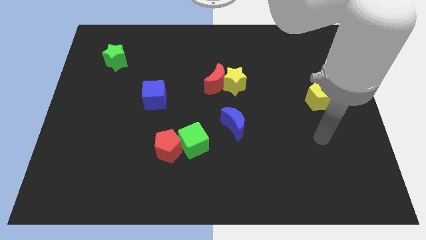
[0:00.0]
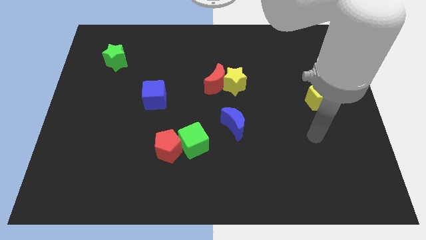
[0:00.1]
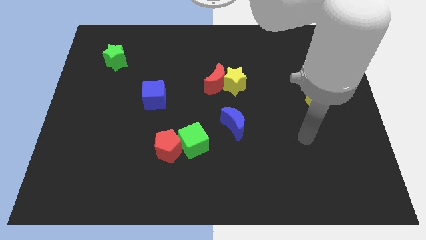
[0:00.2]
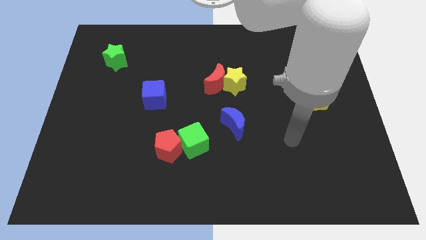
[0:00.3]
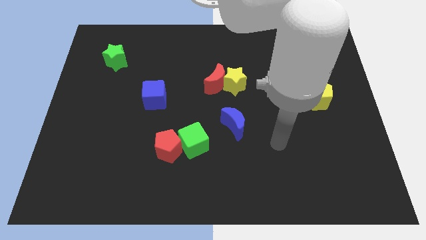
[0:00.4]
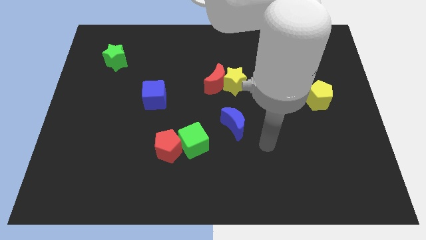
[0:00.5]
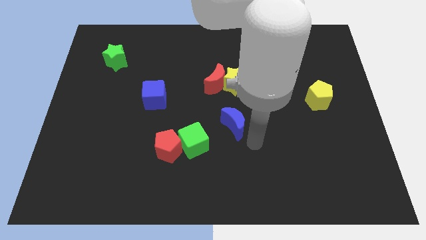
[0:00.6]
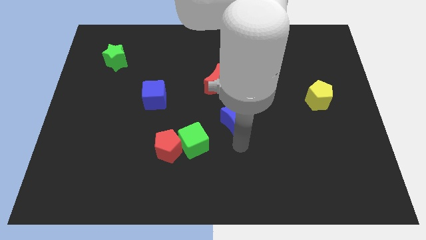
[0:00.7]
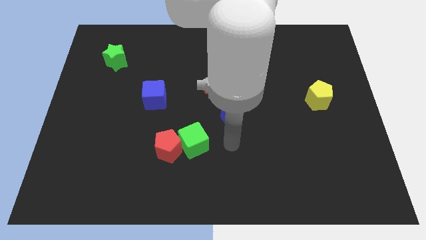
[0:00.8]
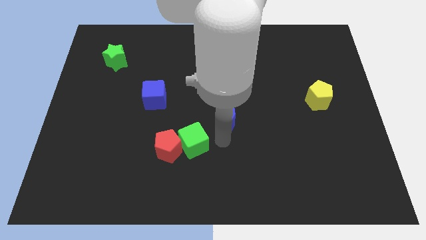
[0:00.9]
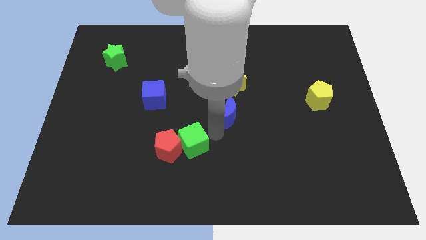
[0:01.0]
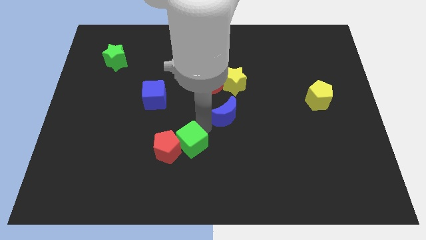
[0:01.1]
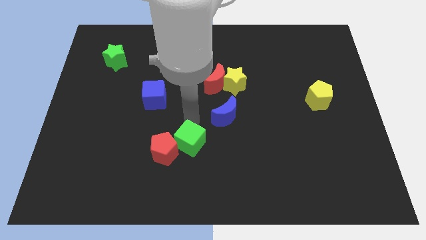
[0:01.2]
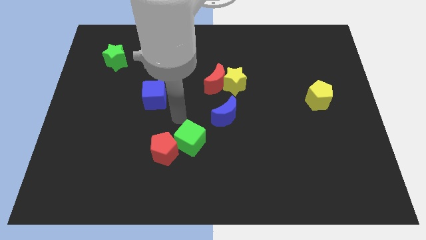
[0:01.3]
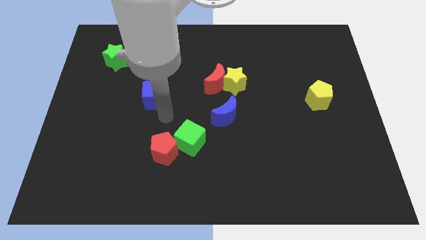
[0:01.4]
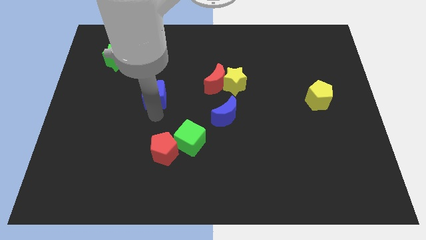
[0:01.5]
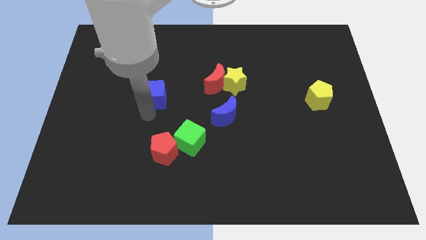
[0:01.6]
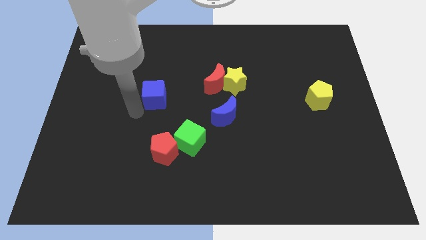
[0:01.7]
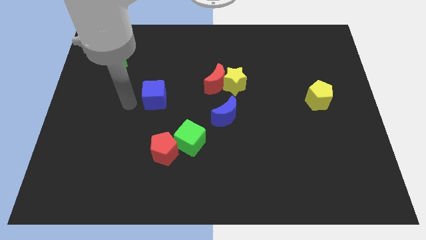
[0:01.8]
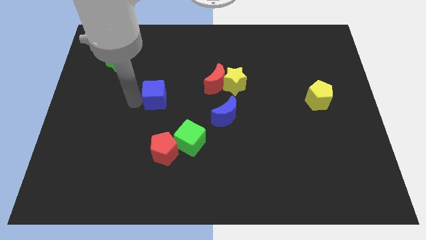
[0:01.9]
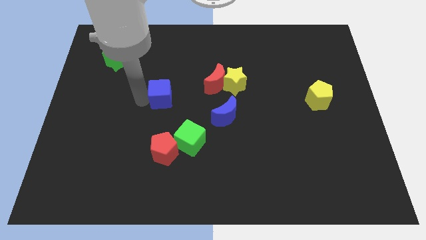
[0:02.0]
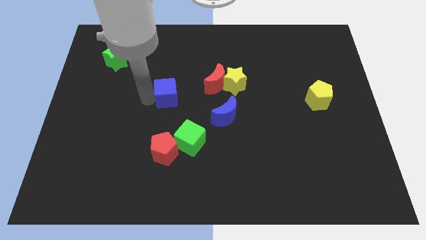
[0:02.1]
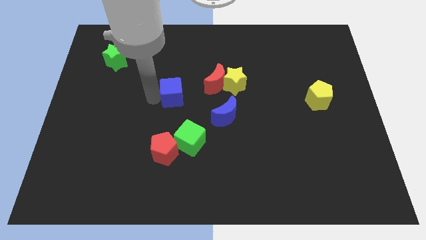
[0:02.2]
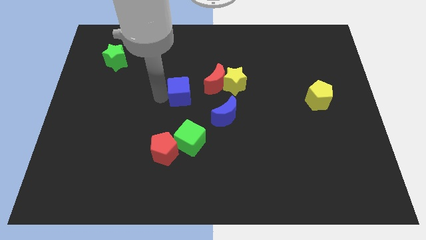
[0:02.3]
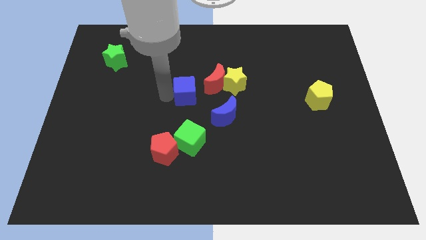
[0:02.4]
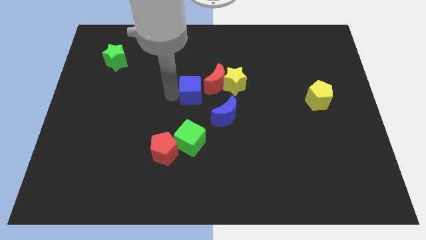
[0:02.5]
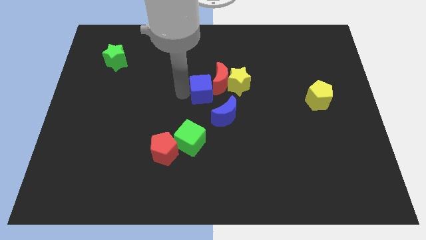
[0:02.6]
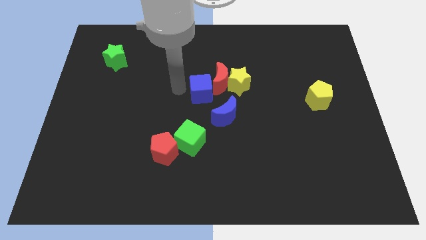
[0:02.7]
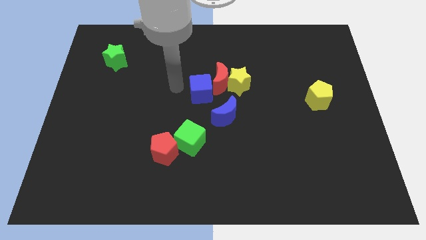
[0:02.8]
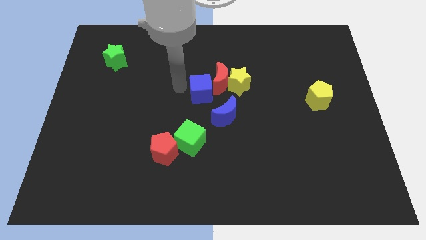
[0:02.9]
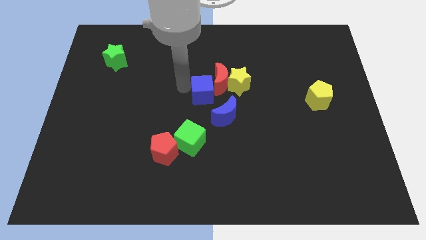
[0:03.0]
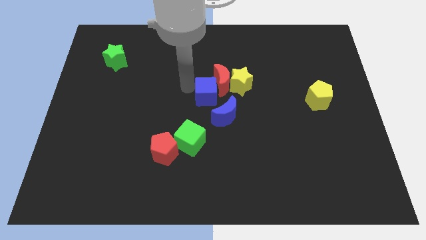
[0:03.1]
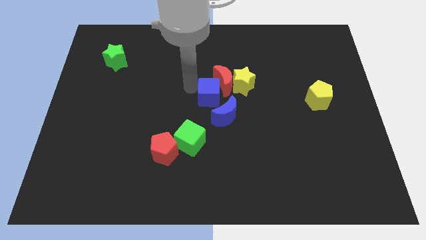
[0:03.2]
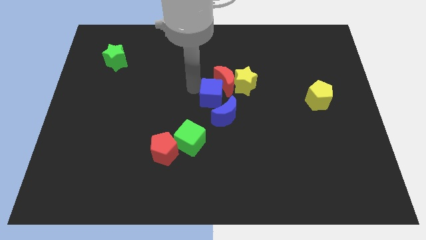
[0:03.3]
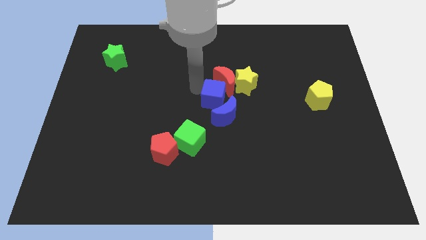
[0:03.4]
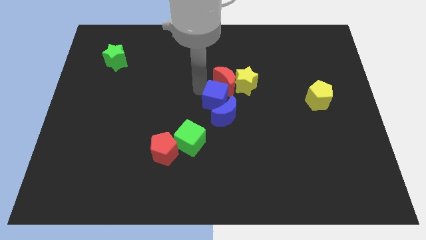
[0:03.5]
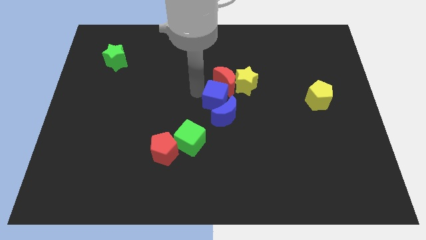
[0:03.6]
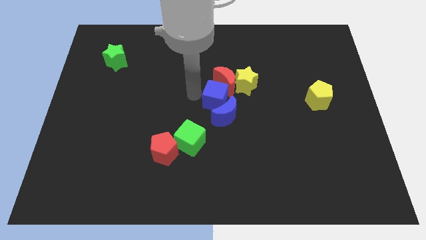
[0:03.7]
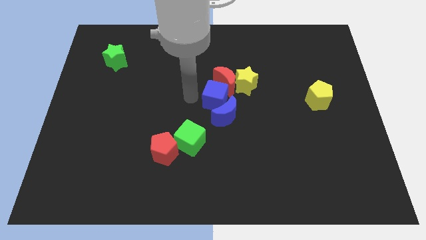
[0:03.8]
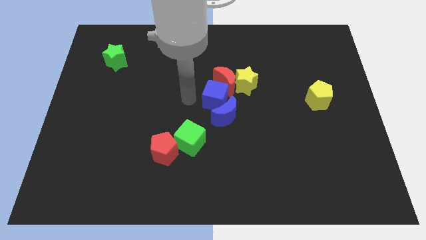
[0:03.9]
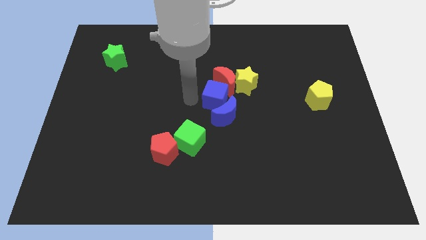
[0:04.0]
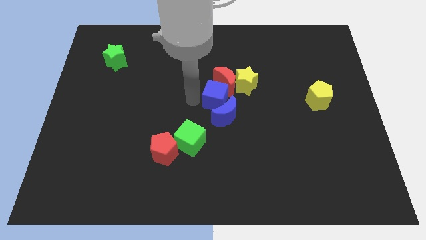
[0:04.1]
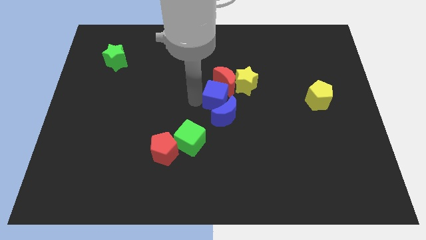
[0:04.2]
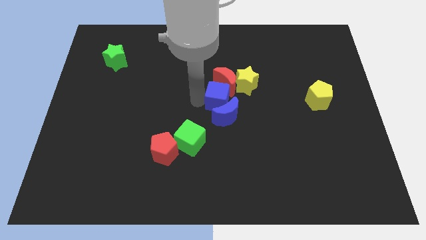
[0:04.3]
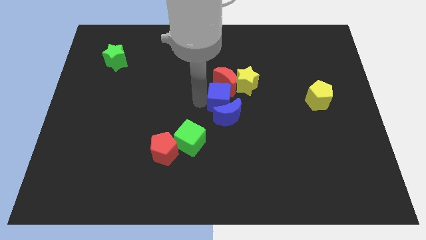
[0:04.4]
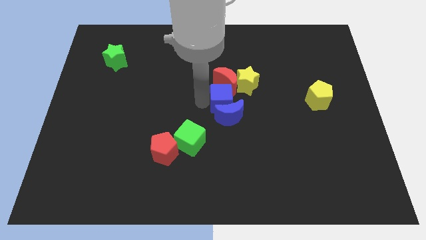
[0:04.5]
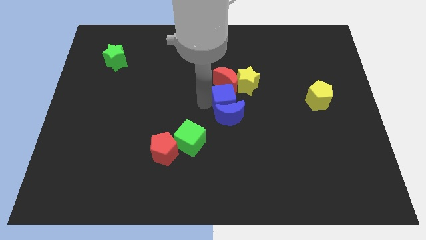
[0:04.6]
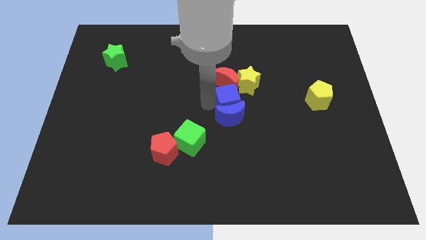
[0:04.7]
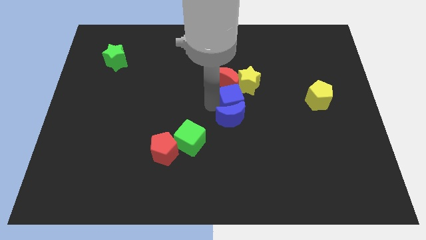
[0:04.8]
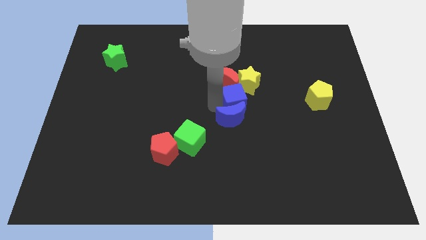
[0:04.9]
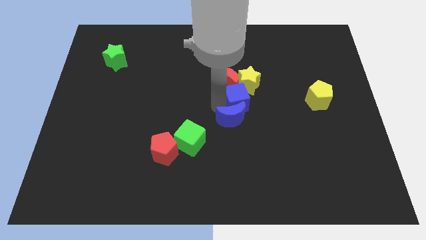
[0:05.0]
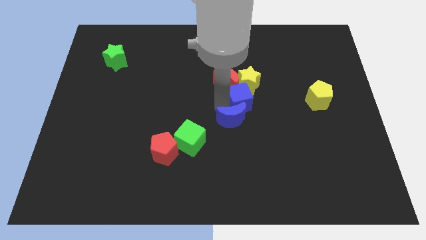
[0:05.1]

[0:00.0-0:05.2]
move the blue cube to the yellow star

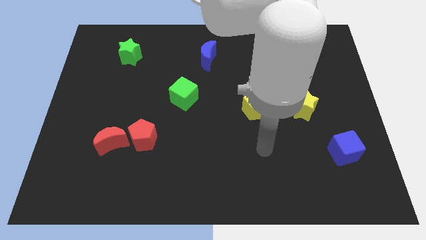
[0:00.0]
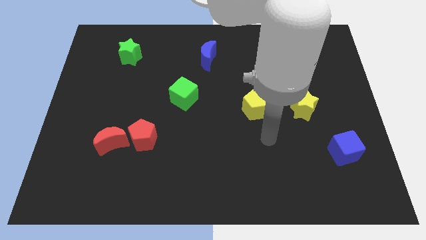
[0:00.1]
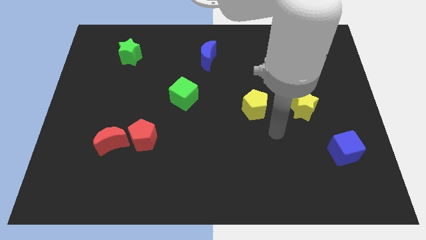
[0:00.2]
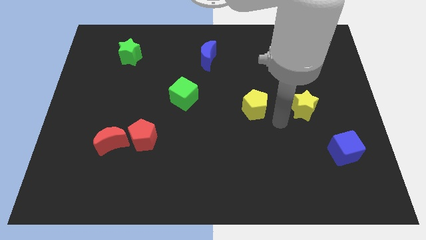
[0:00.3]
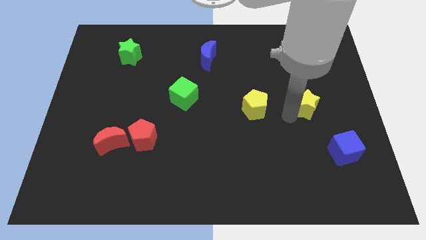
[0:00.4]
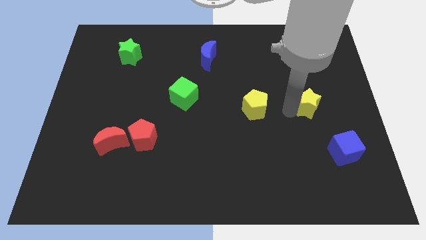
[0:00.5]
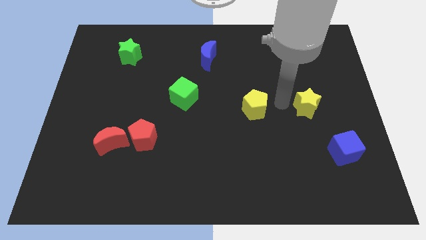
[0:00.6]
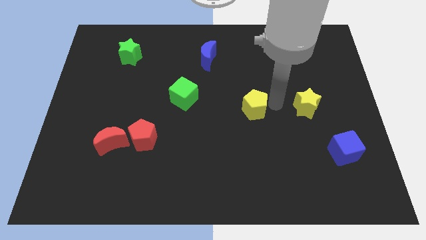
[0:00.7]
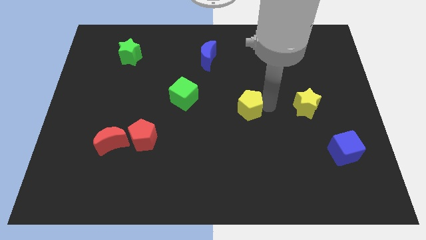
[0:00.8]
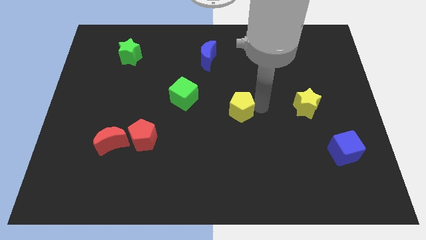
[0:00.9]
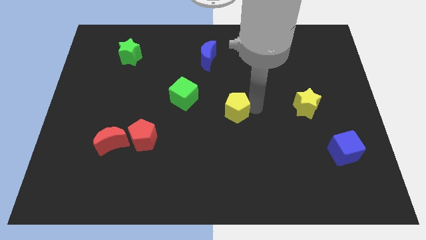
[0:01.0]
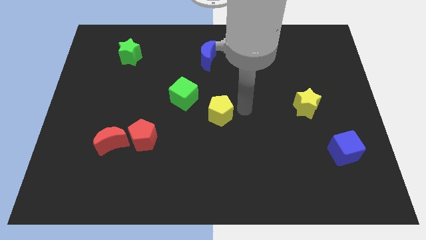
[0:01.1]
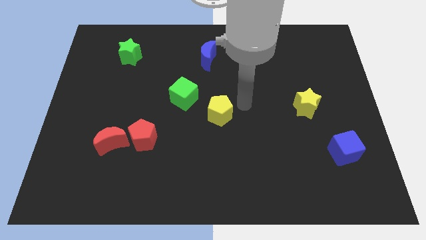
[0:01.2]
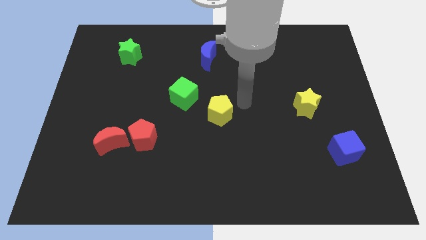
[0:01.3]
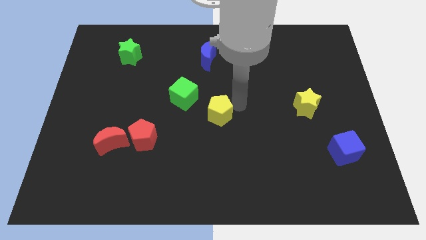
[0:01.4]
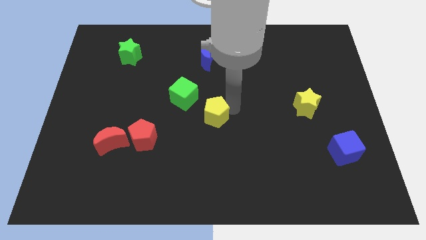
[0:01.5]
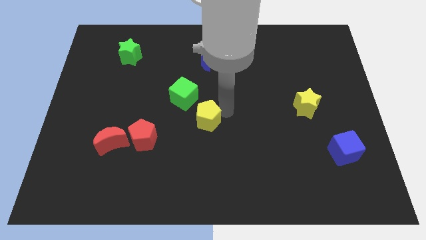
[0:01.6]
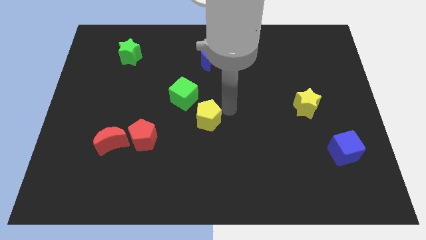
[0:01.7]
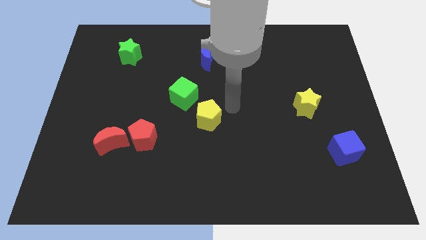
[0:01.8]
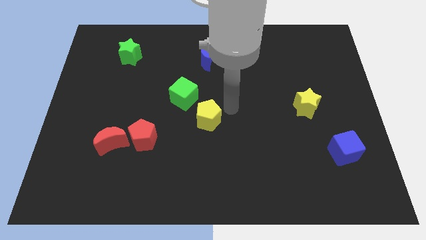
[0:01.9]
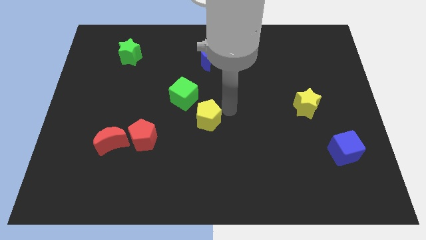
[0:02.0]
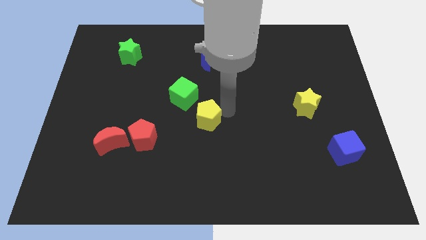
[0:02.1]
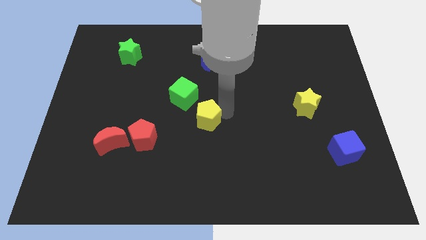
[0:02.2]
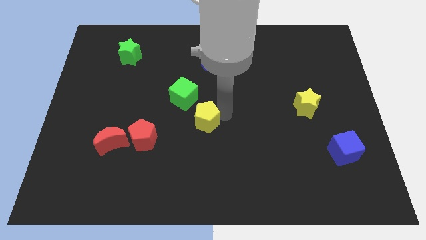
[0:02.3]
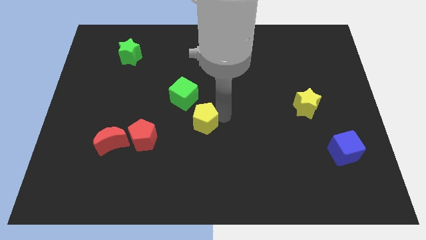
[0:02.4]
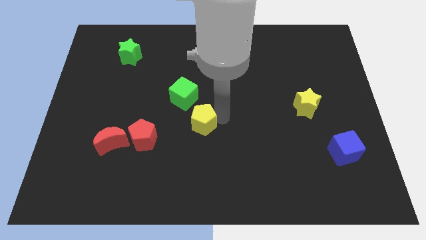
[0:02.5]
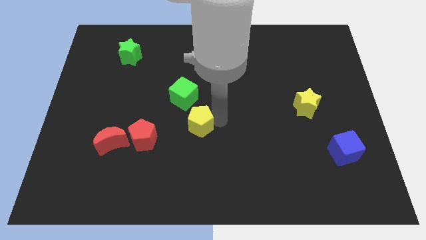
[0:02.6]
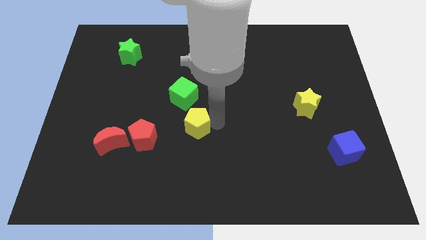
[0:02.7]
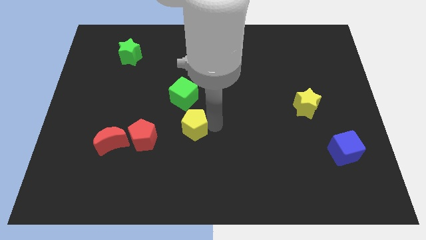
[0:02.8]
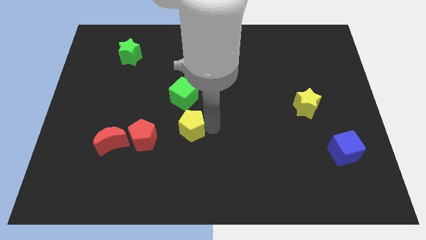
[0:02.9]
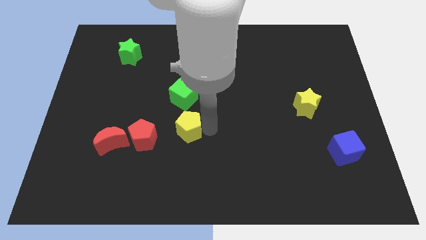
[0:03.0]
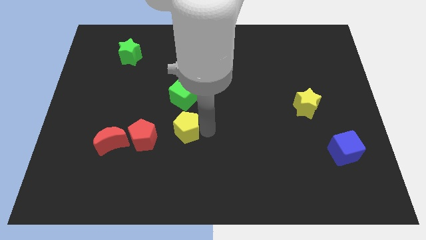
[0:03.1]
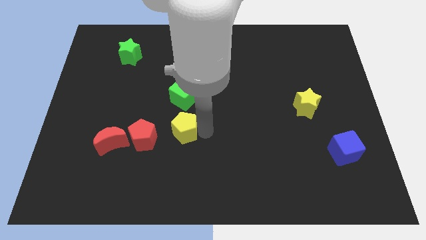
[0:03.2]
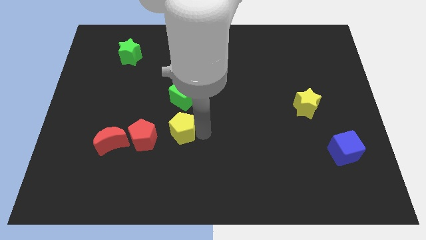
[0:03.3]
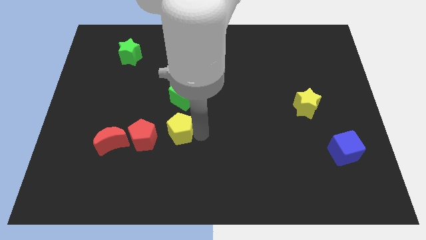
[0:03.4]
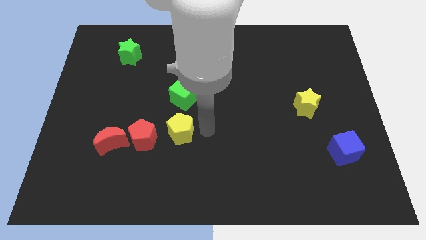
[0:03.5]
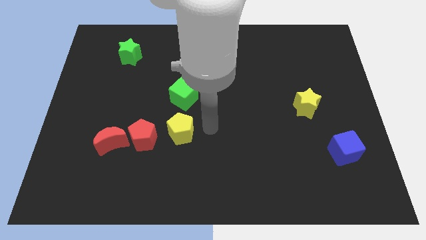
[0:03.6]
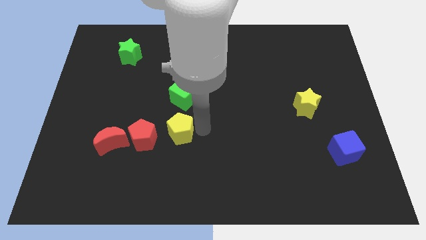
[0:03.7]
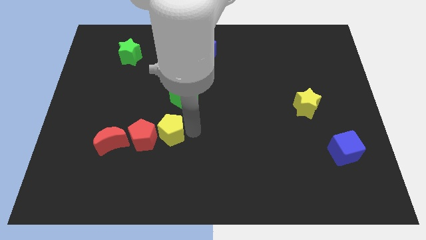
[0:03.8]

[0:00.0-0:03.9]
put the yellow pentagon next to the red pentagon
